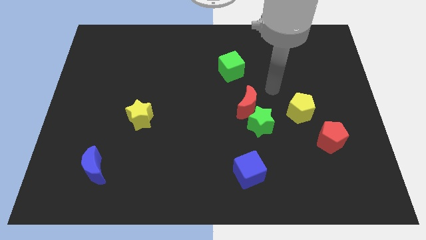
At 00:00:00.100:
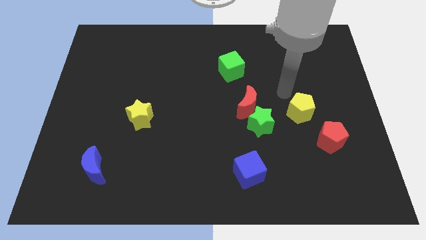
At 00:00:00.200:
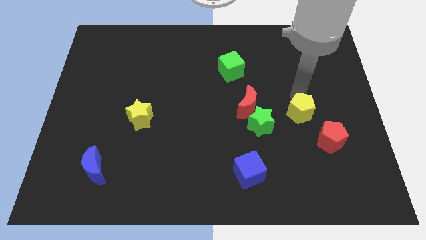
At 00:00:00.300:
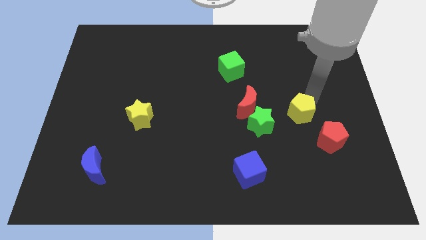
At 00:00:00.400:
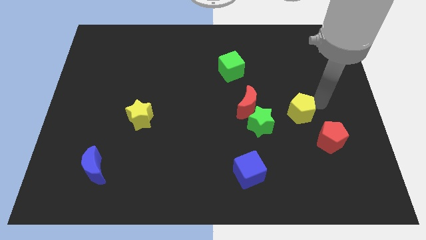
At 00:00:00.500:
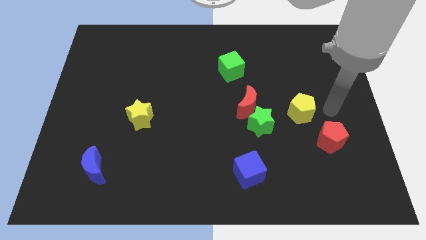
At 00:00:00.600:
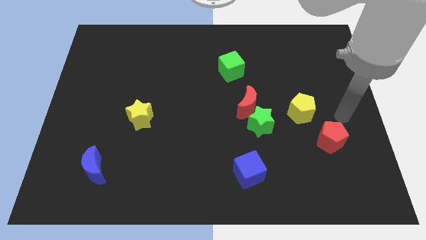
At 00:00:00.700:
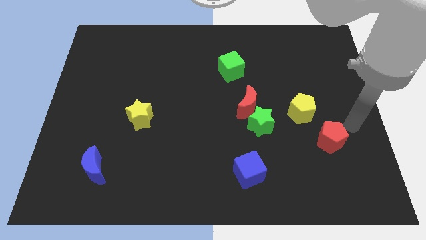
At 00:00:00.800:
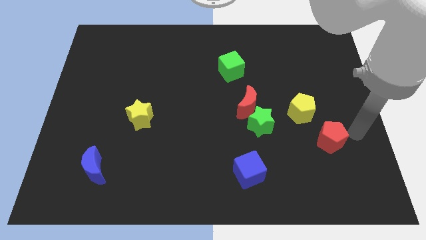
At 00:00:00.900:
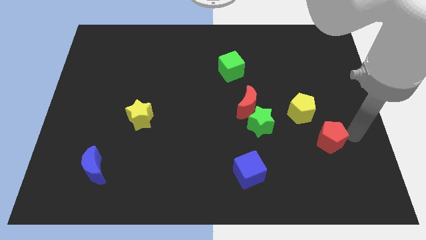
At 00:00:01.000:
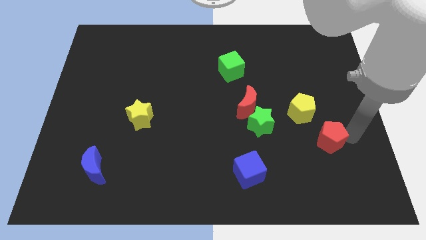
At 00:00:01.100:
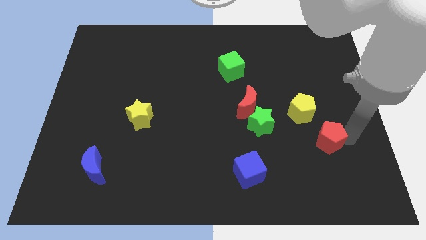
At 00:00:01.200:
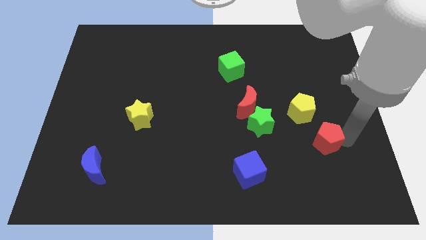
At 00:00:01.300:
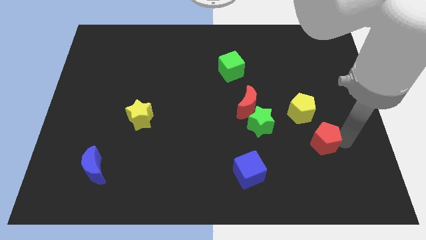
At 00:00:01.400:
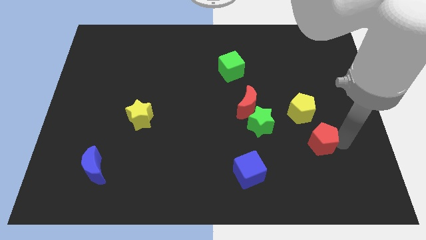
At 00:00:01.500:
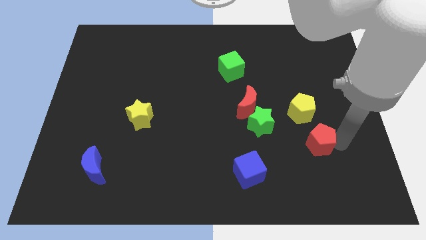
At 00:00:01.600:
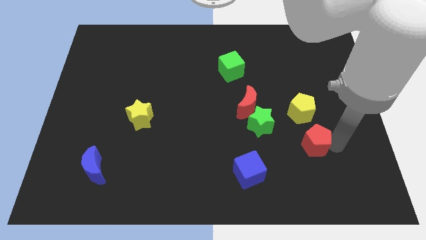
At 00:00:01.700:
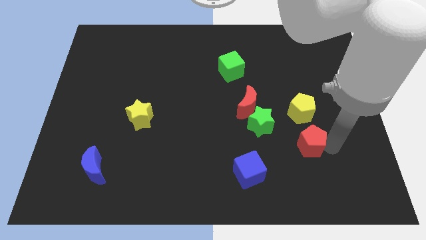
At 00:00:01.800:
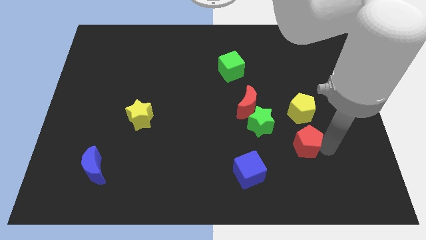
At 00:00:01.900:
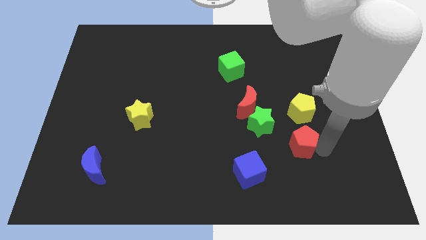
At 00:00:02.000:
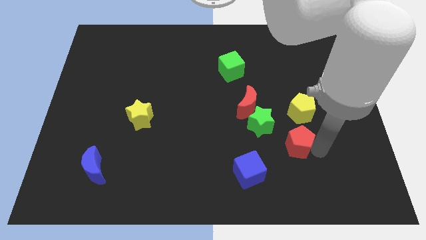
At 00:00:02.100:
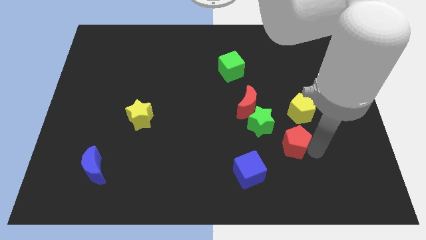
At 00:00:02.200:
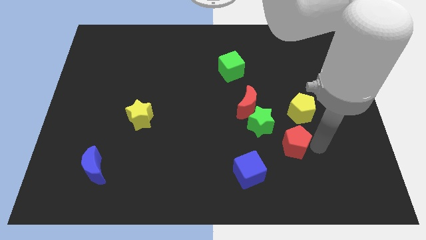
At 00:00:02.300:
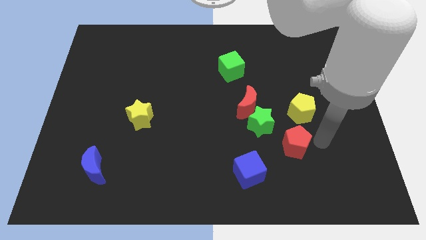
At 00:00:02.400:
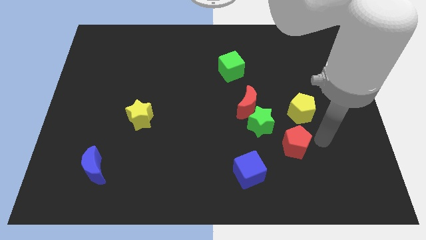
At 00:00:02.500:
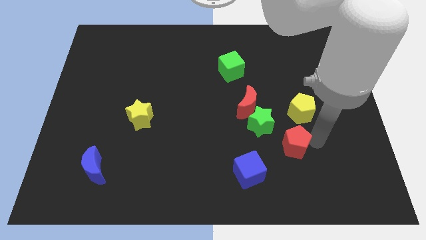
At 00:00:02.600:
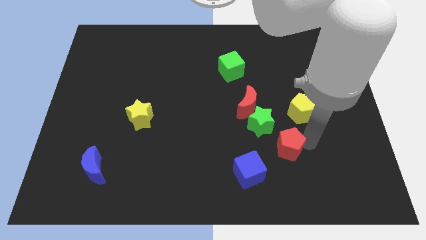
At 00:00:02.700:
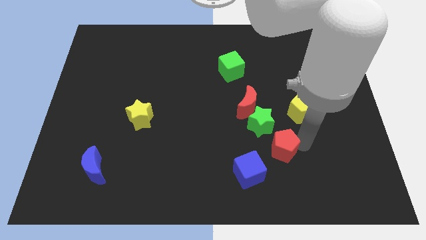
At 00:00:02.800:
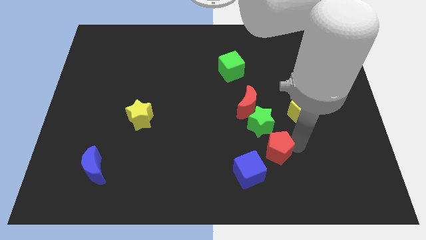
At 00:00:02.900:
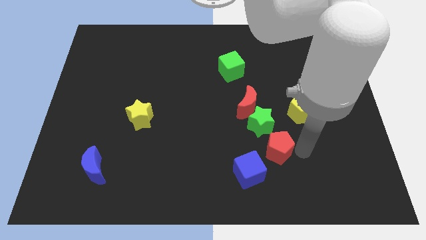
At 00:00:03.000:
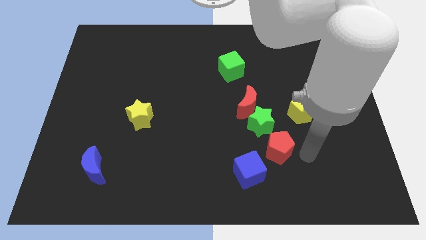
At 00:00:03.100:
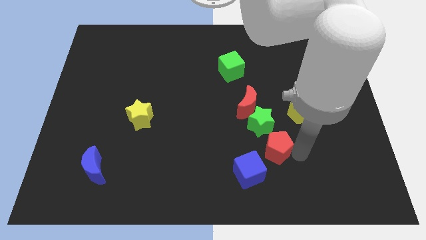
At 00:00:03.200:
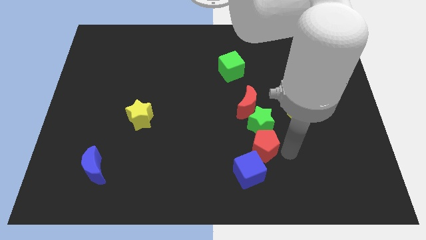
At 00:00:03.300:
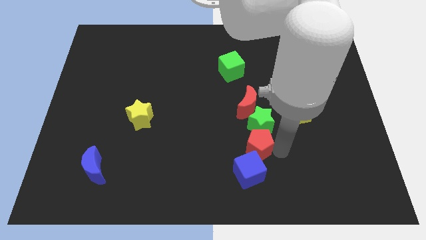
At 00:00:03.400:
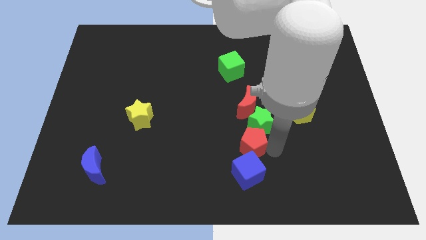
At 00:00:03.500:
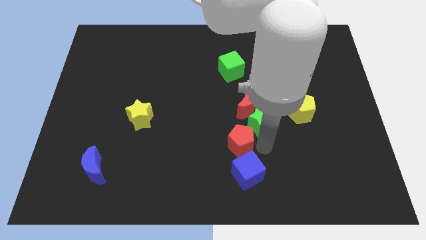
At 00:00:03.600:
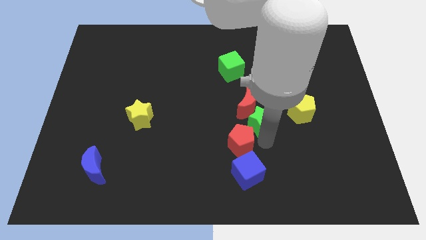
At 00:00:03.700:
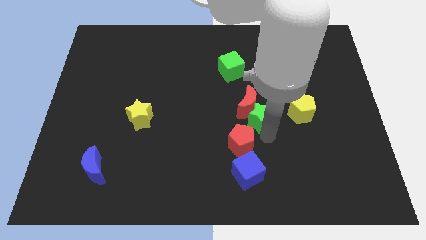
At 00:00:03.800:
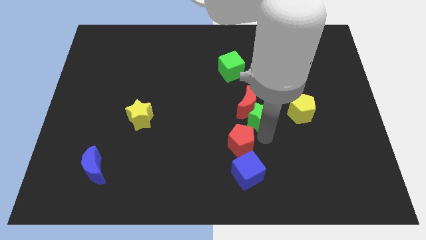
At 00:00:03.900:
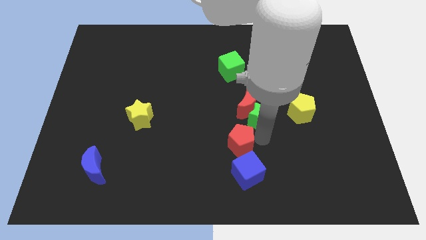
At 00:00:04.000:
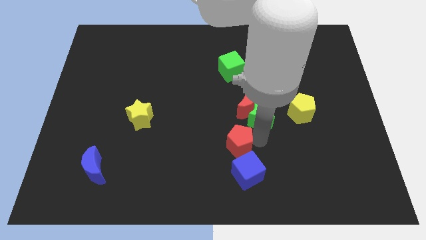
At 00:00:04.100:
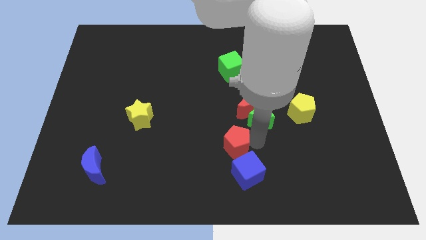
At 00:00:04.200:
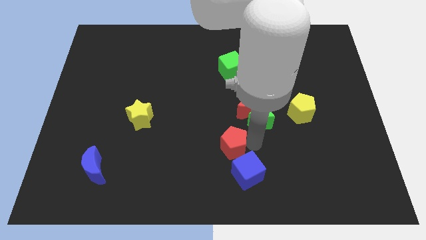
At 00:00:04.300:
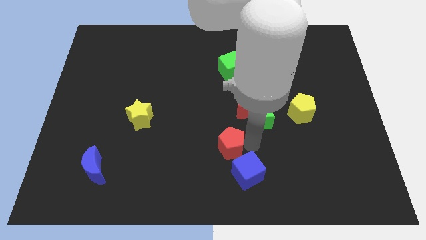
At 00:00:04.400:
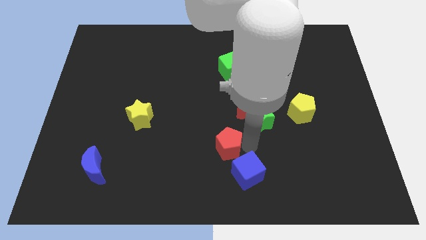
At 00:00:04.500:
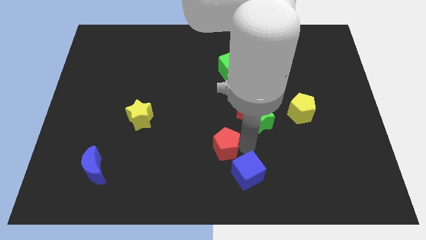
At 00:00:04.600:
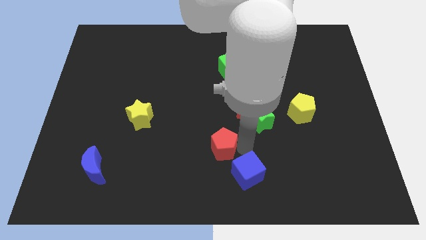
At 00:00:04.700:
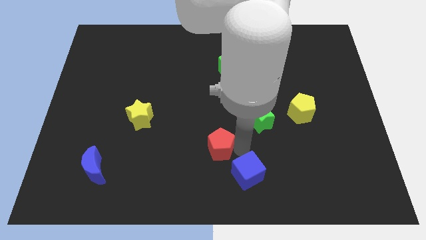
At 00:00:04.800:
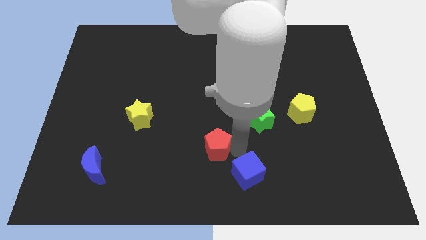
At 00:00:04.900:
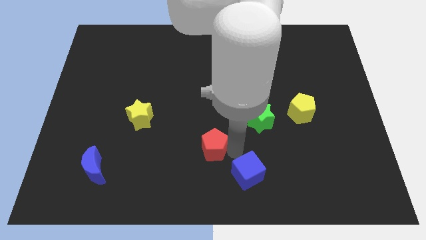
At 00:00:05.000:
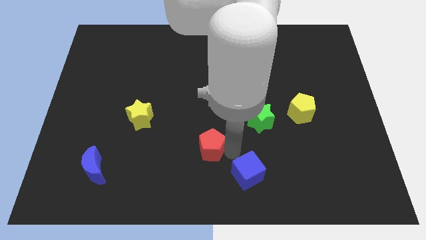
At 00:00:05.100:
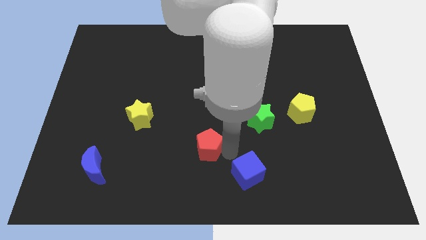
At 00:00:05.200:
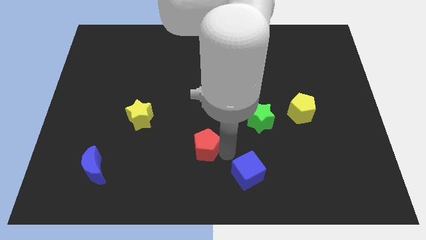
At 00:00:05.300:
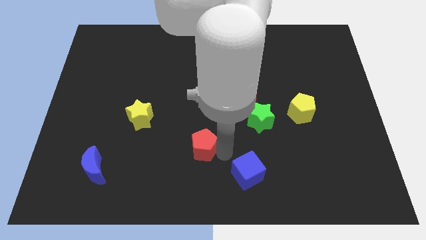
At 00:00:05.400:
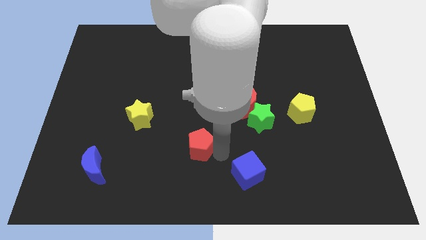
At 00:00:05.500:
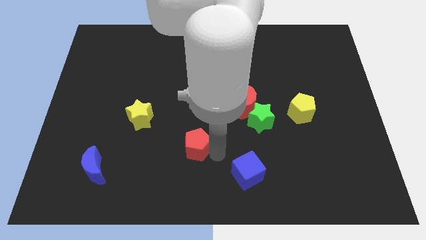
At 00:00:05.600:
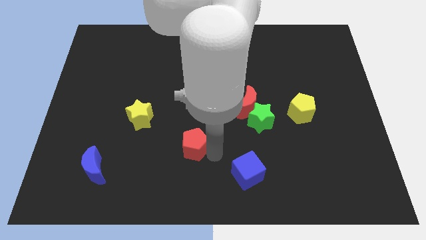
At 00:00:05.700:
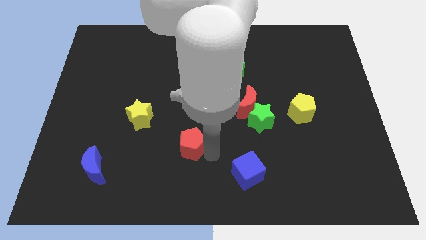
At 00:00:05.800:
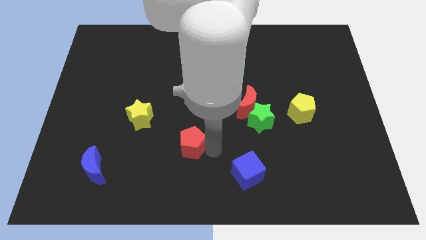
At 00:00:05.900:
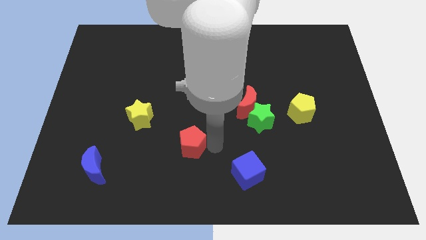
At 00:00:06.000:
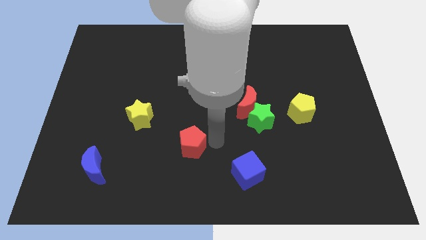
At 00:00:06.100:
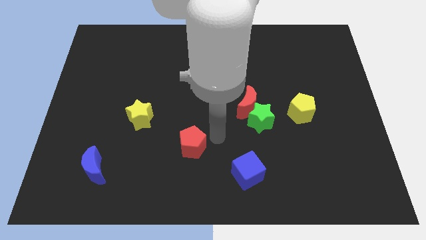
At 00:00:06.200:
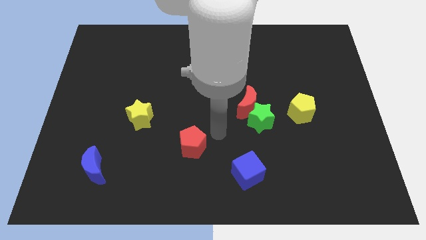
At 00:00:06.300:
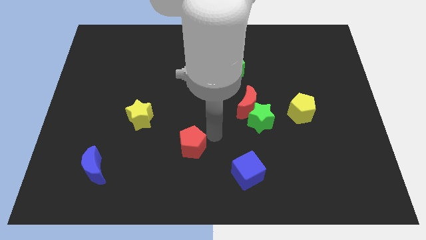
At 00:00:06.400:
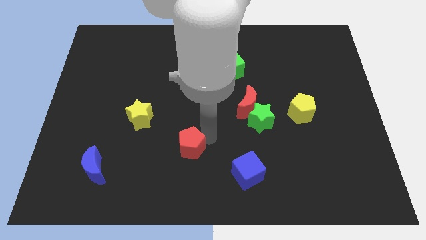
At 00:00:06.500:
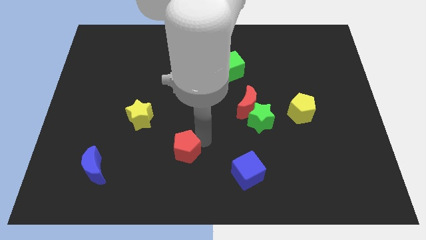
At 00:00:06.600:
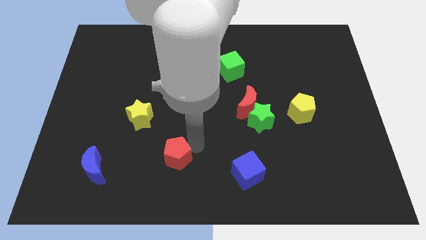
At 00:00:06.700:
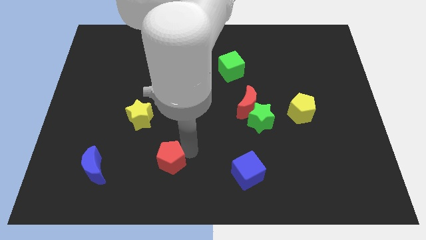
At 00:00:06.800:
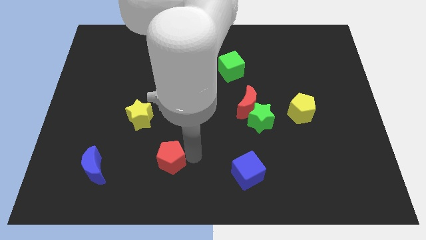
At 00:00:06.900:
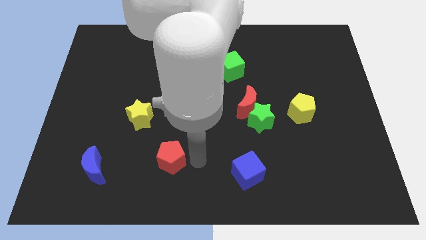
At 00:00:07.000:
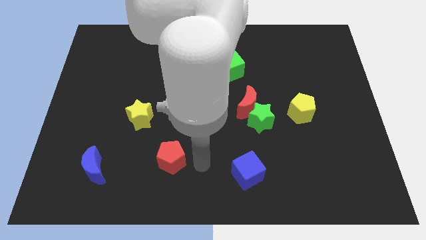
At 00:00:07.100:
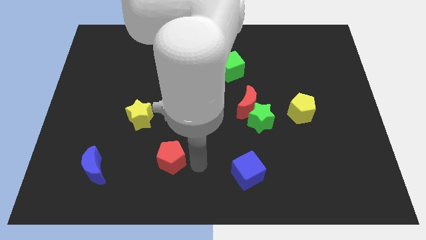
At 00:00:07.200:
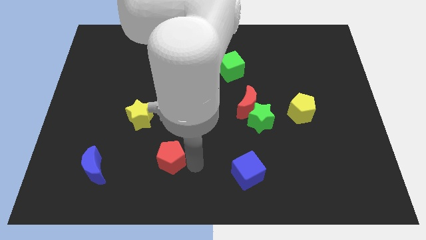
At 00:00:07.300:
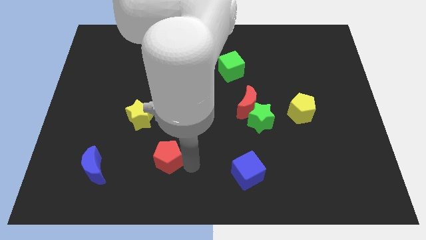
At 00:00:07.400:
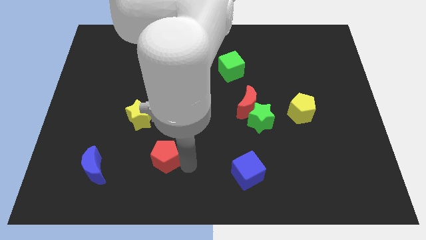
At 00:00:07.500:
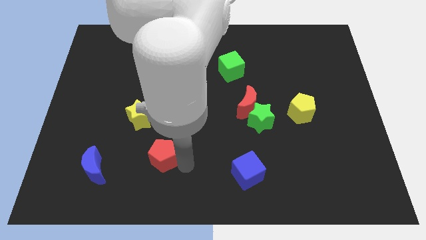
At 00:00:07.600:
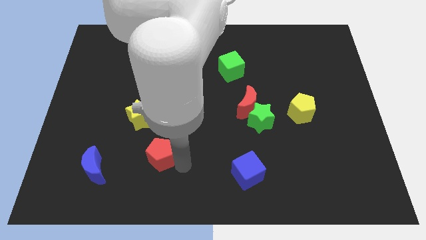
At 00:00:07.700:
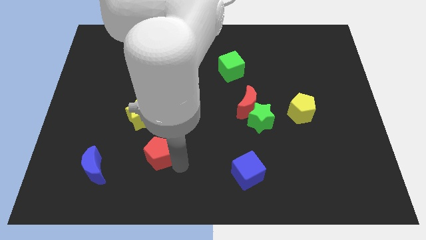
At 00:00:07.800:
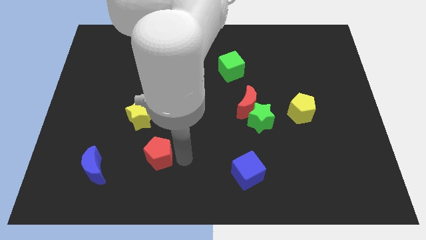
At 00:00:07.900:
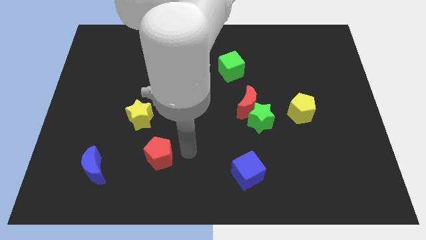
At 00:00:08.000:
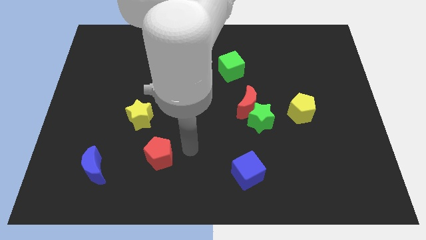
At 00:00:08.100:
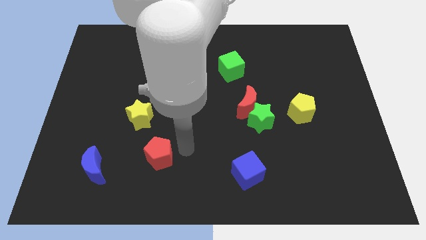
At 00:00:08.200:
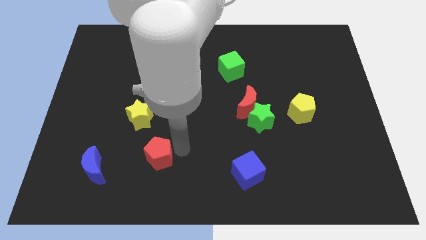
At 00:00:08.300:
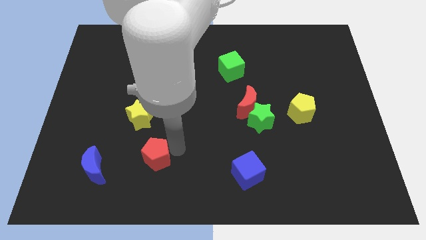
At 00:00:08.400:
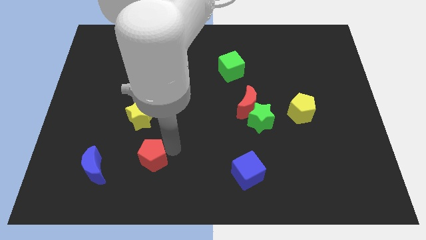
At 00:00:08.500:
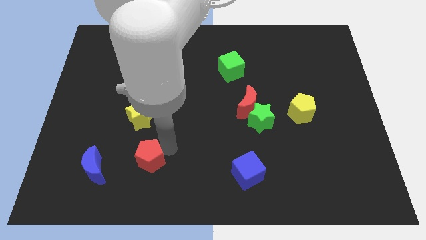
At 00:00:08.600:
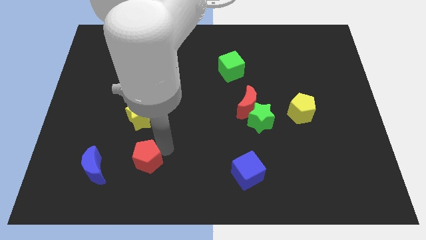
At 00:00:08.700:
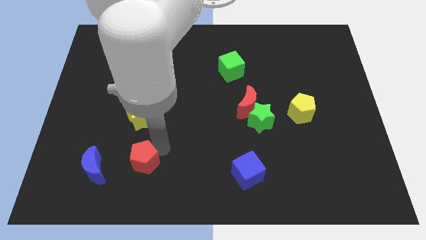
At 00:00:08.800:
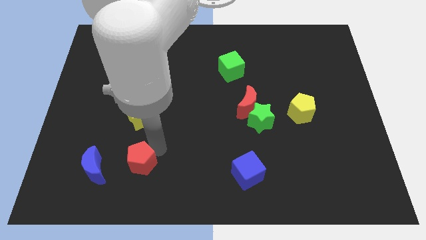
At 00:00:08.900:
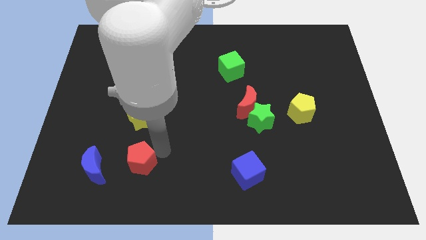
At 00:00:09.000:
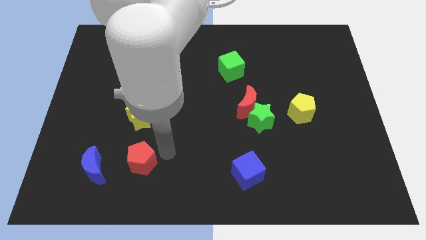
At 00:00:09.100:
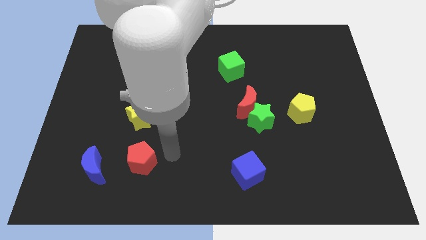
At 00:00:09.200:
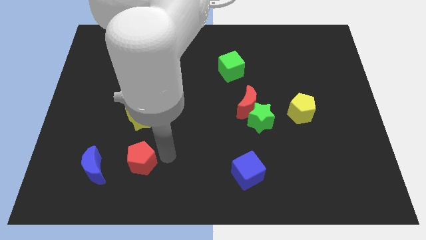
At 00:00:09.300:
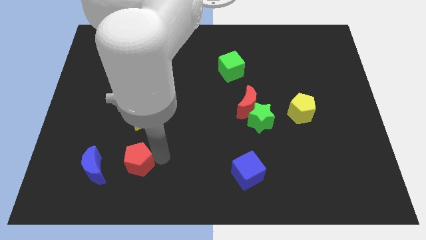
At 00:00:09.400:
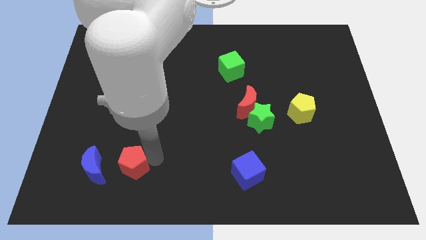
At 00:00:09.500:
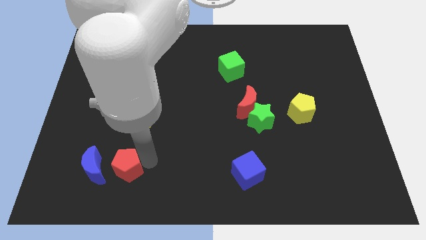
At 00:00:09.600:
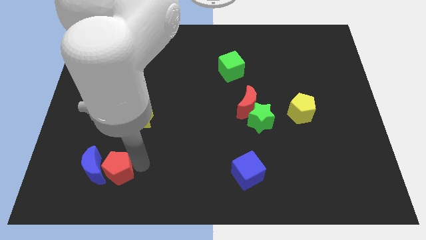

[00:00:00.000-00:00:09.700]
put the red pentagon next to the blue moon
